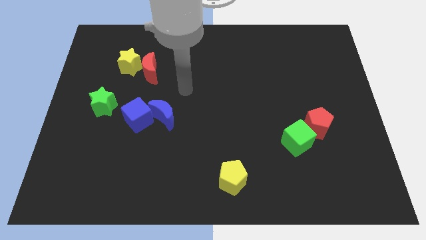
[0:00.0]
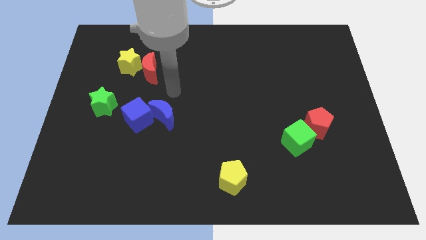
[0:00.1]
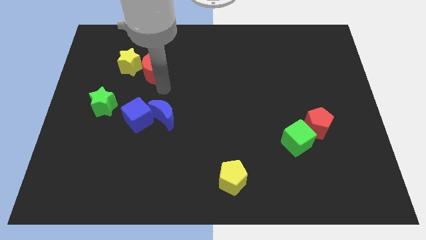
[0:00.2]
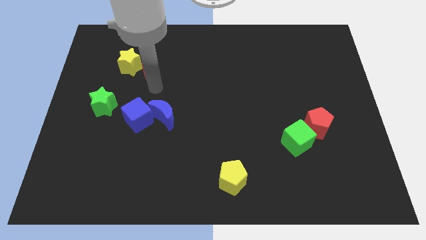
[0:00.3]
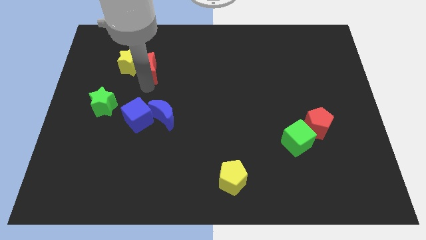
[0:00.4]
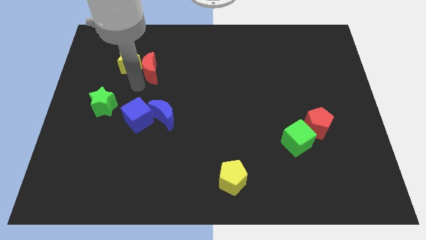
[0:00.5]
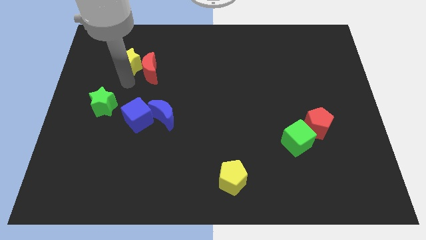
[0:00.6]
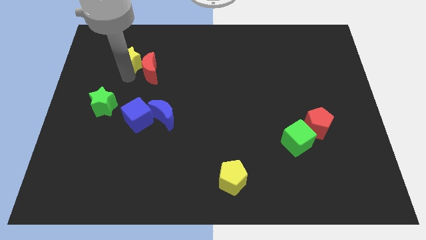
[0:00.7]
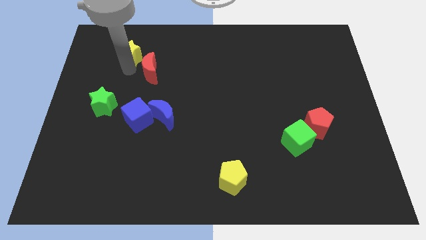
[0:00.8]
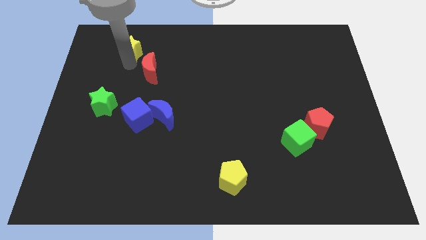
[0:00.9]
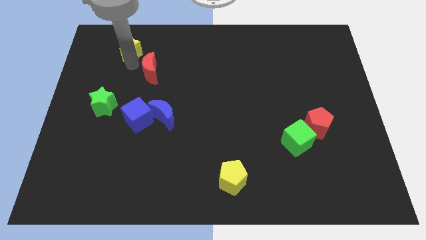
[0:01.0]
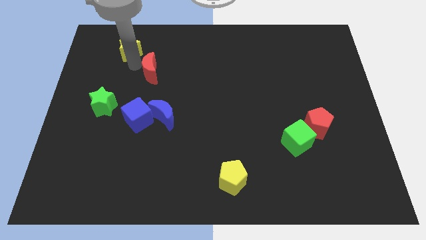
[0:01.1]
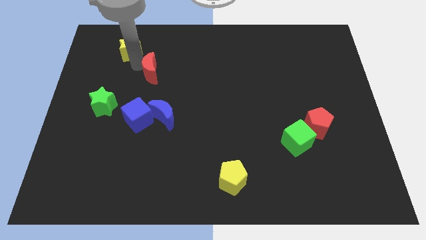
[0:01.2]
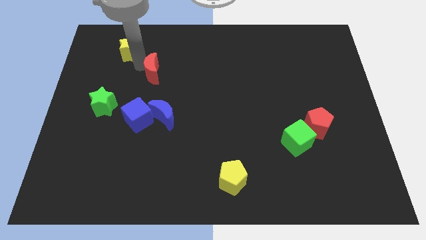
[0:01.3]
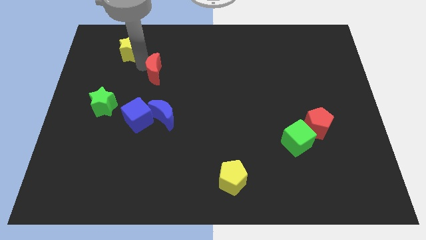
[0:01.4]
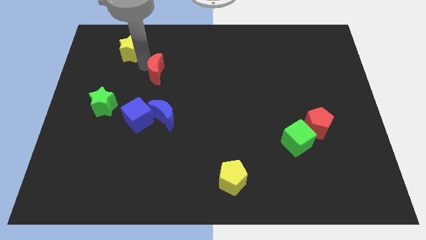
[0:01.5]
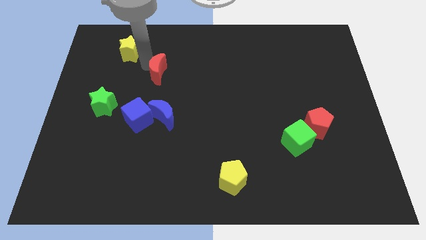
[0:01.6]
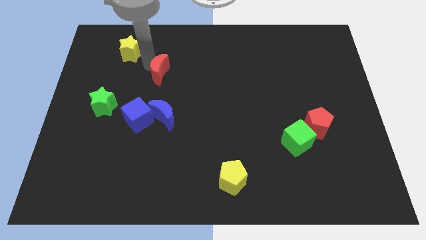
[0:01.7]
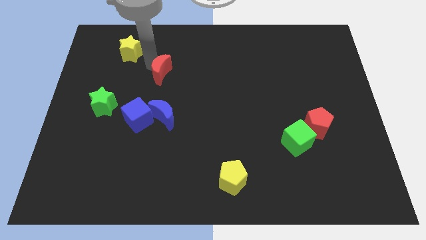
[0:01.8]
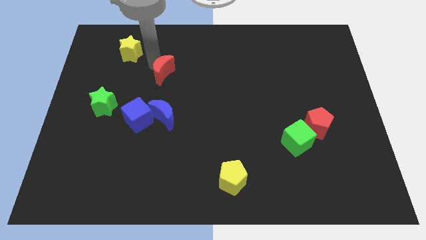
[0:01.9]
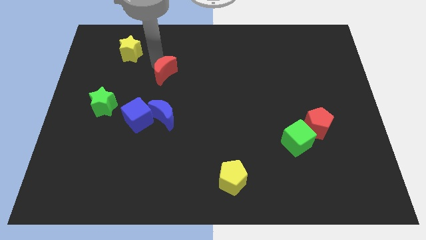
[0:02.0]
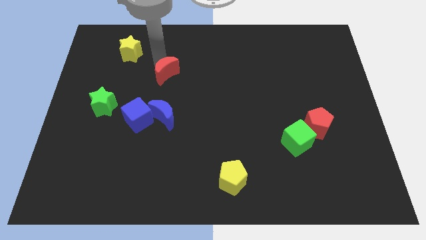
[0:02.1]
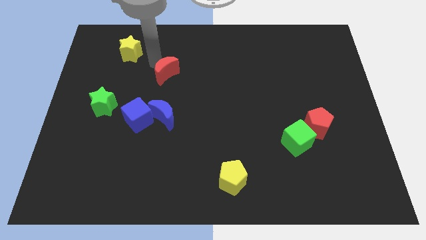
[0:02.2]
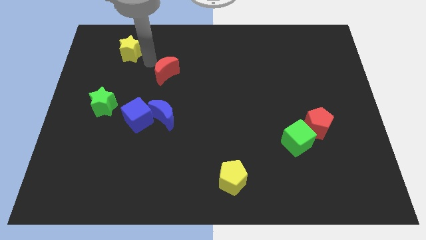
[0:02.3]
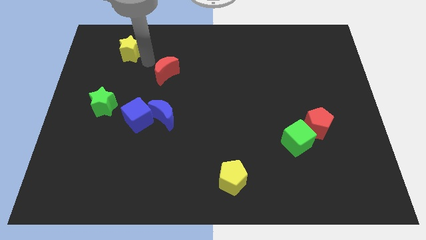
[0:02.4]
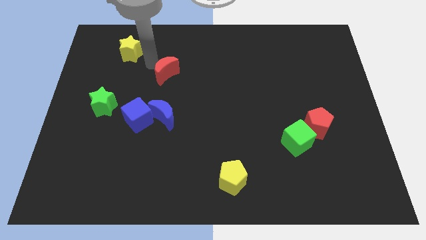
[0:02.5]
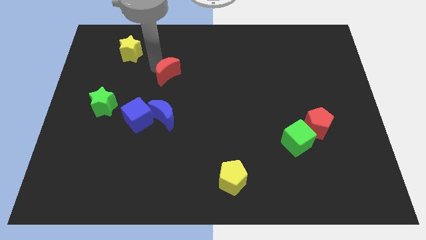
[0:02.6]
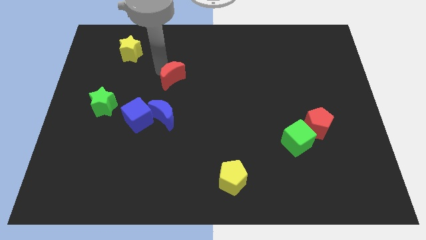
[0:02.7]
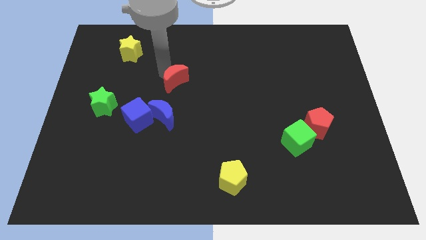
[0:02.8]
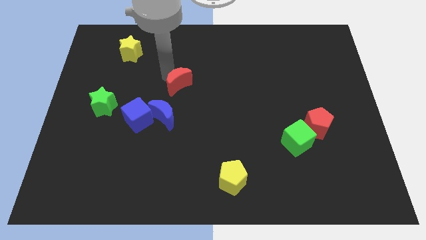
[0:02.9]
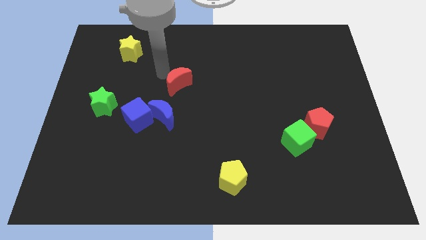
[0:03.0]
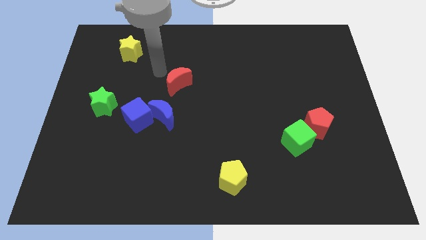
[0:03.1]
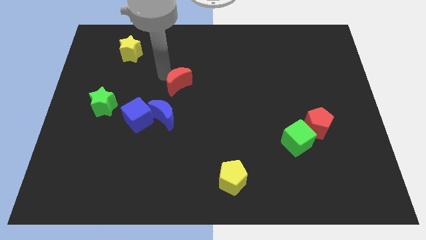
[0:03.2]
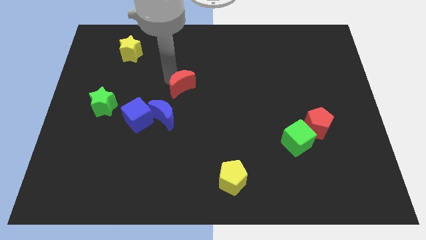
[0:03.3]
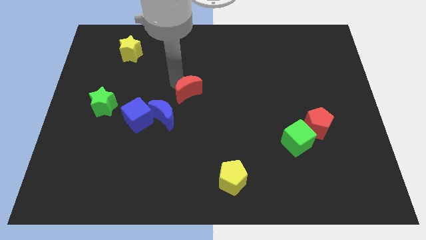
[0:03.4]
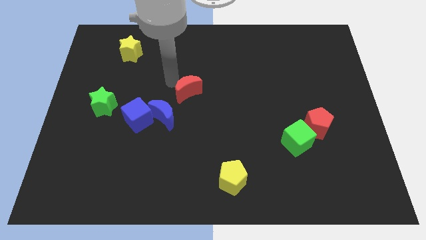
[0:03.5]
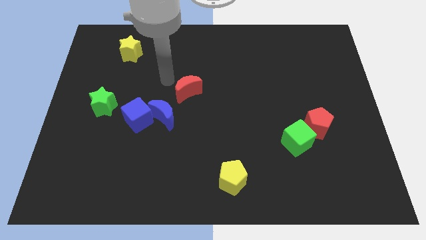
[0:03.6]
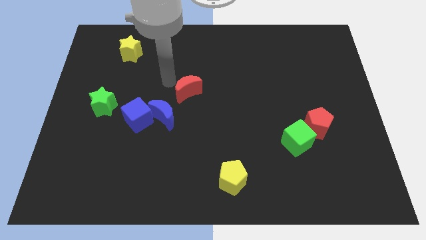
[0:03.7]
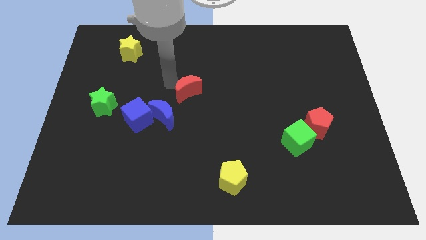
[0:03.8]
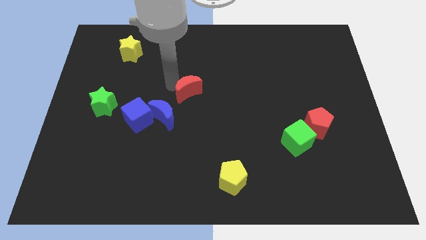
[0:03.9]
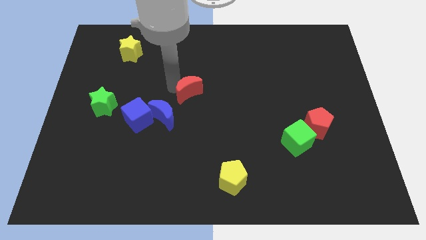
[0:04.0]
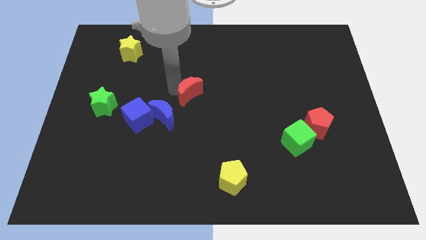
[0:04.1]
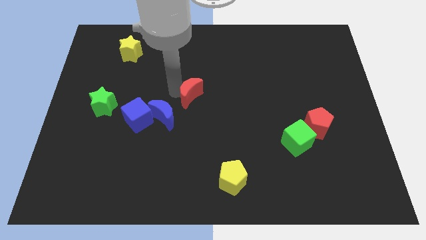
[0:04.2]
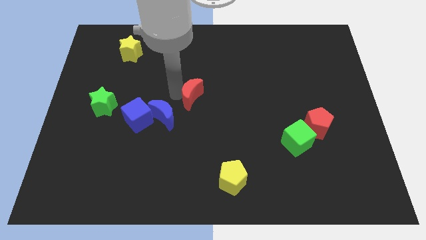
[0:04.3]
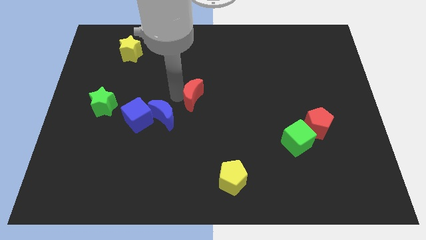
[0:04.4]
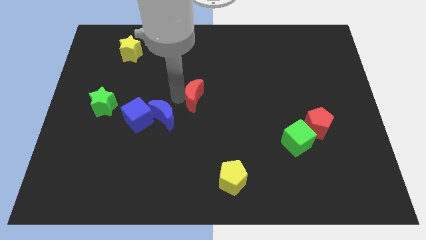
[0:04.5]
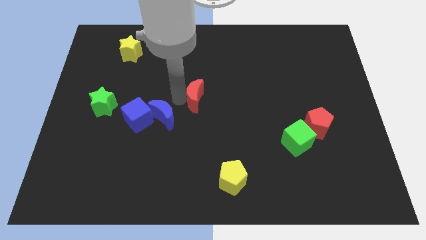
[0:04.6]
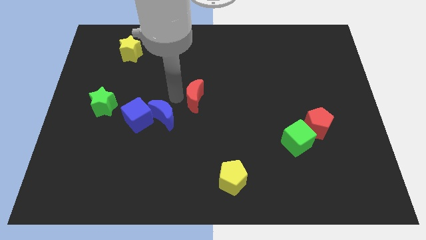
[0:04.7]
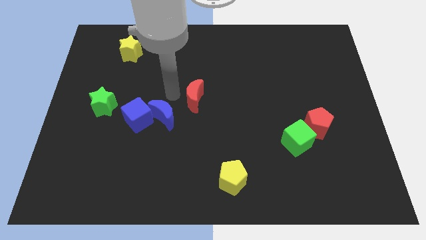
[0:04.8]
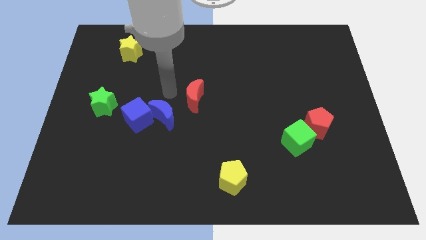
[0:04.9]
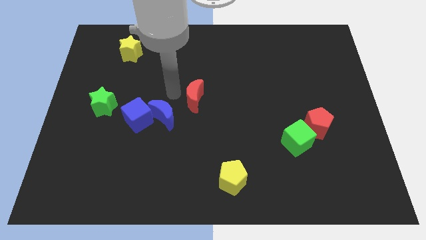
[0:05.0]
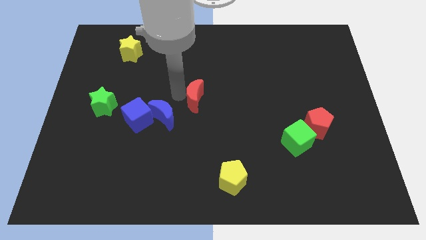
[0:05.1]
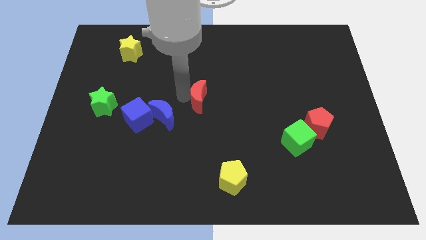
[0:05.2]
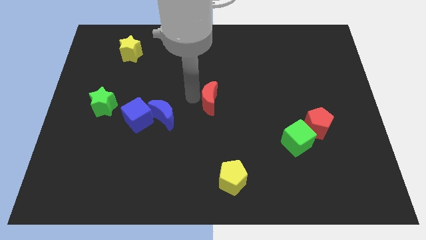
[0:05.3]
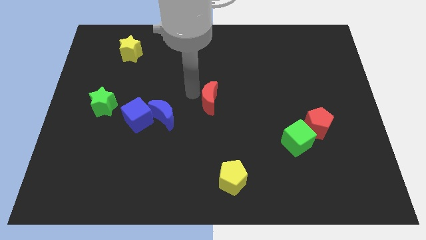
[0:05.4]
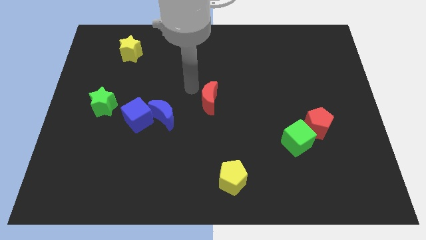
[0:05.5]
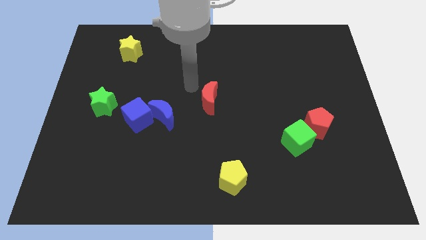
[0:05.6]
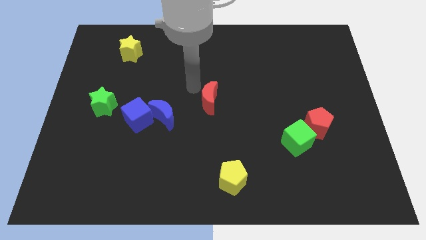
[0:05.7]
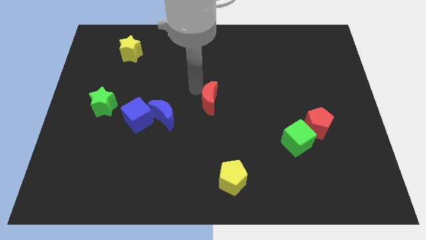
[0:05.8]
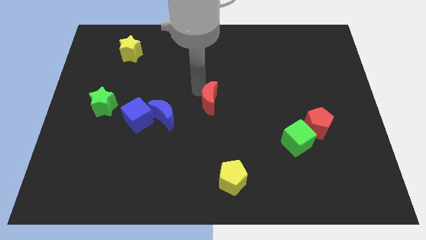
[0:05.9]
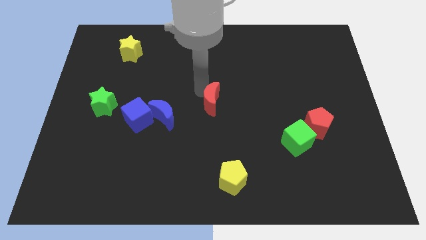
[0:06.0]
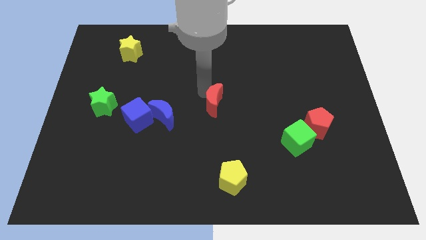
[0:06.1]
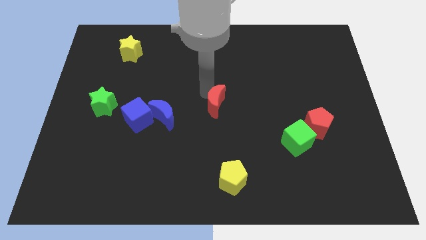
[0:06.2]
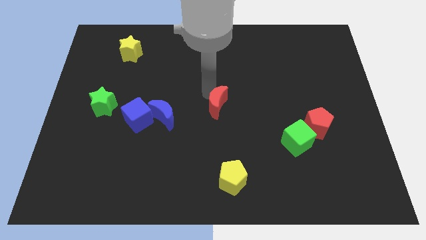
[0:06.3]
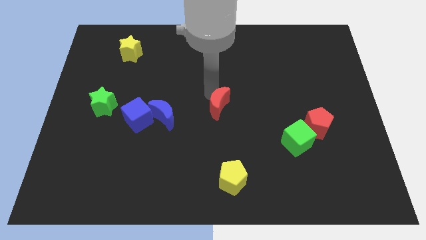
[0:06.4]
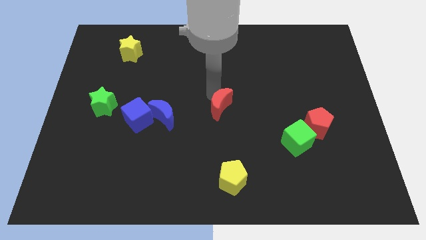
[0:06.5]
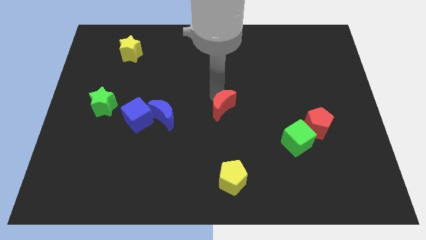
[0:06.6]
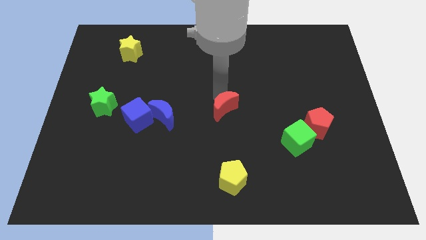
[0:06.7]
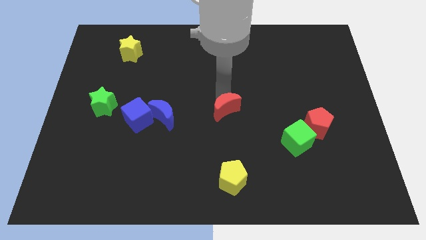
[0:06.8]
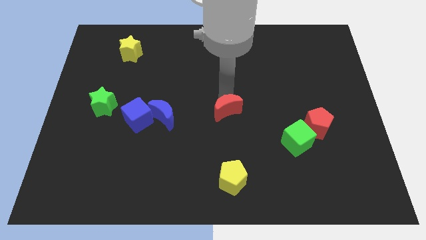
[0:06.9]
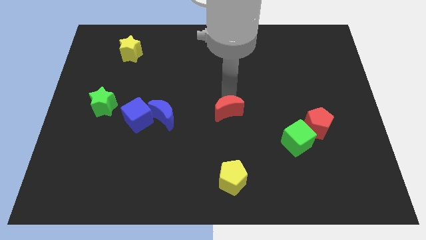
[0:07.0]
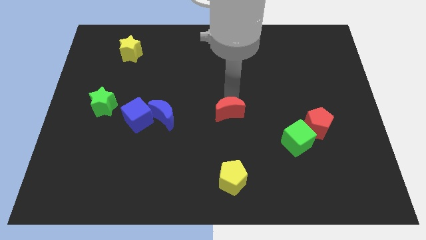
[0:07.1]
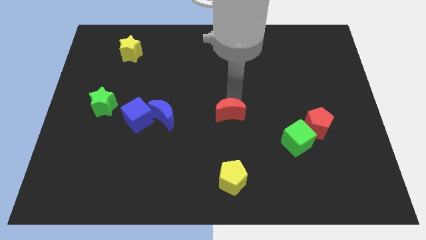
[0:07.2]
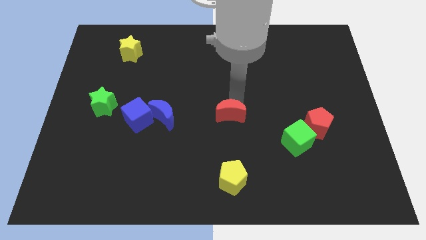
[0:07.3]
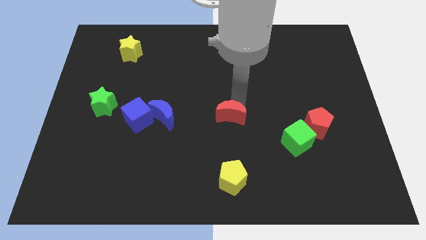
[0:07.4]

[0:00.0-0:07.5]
push the red moon to the top side of the yellow pentagon
